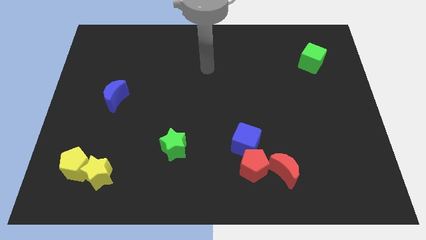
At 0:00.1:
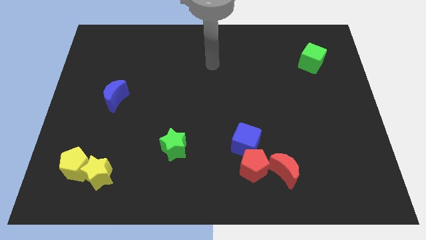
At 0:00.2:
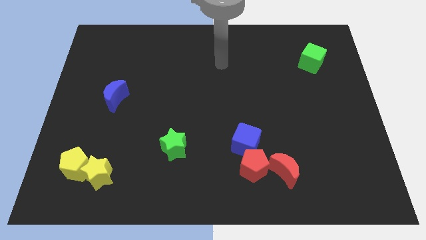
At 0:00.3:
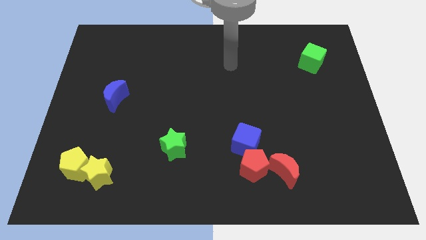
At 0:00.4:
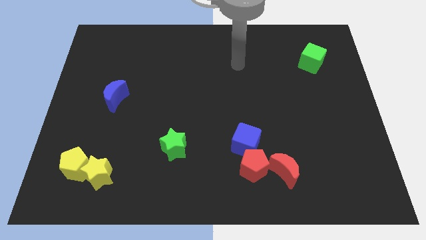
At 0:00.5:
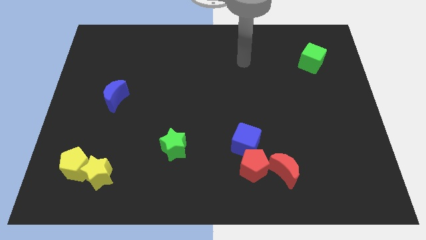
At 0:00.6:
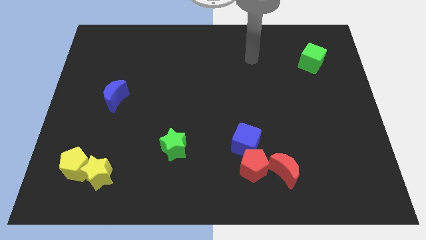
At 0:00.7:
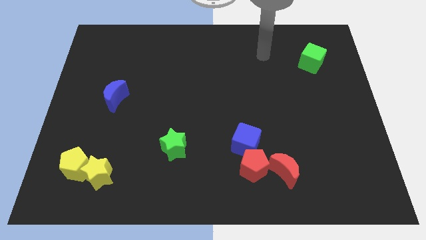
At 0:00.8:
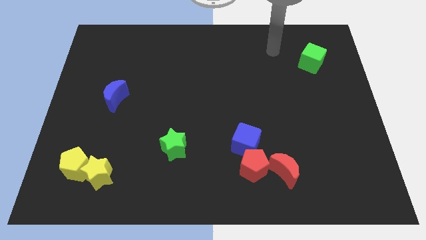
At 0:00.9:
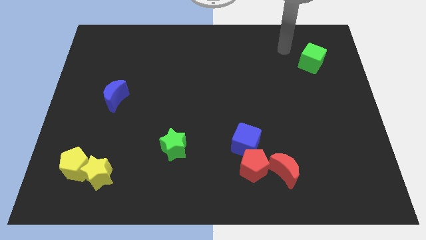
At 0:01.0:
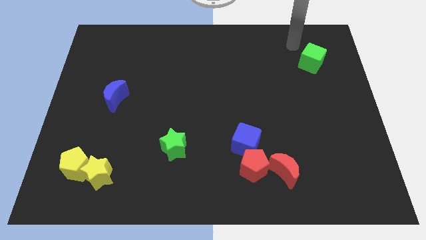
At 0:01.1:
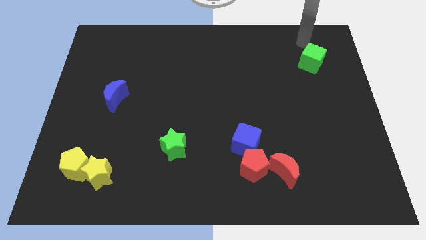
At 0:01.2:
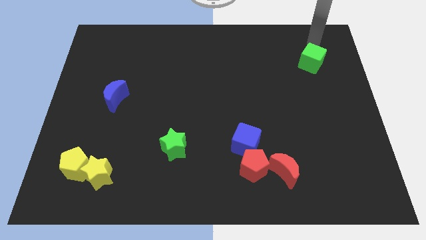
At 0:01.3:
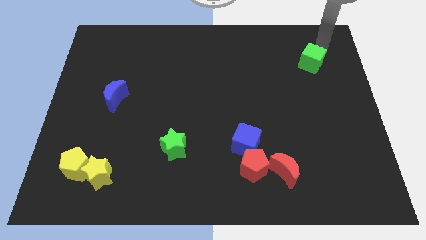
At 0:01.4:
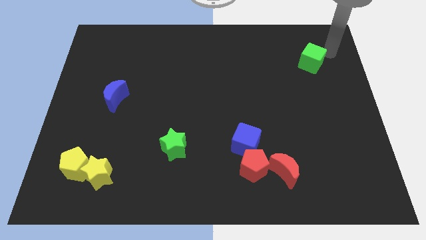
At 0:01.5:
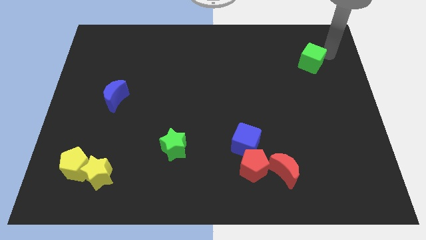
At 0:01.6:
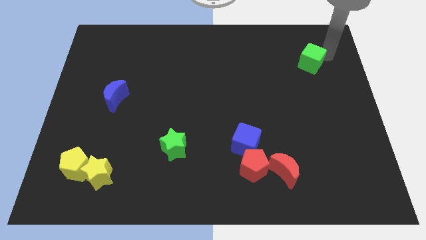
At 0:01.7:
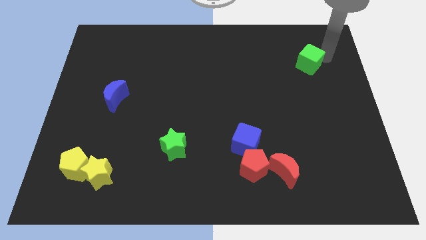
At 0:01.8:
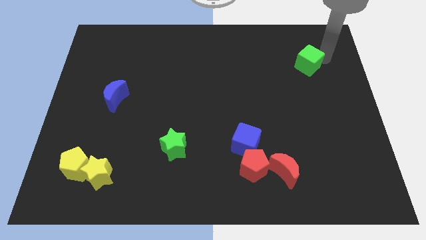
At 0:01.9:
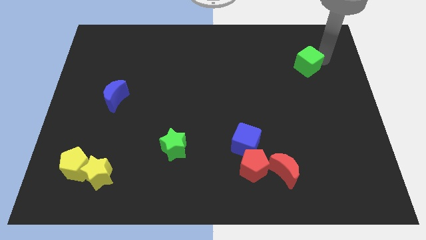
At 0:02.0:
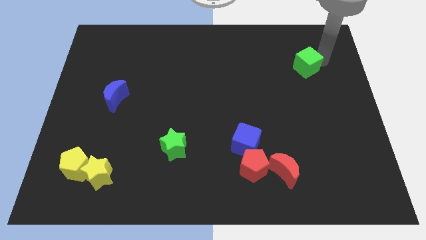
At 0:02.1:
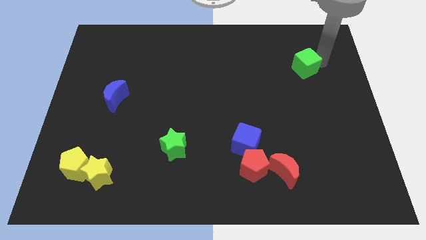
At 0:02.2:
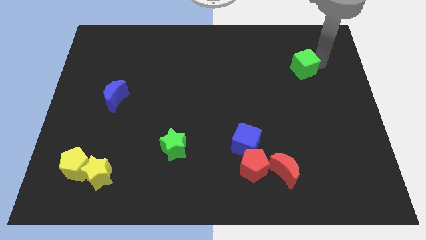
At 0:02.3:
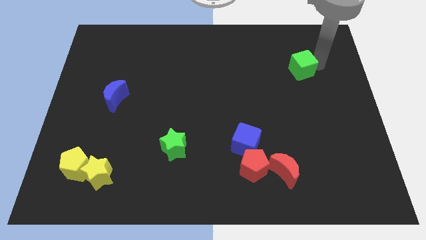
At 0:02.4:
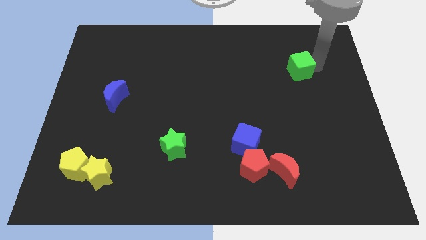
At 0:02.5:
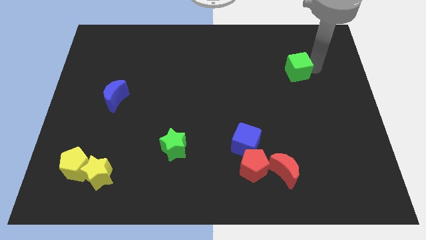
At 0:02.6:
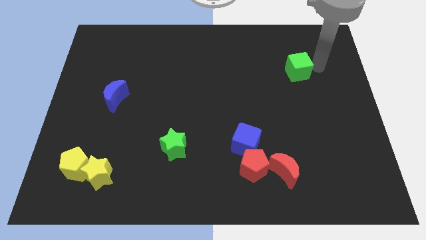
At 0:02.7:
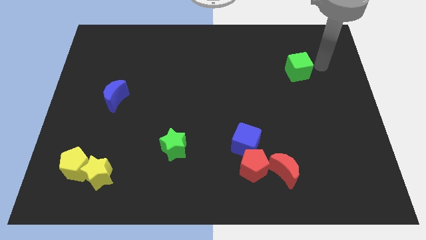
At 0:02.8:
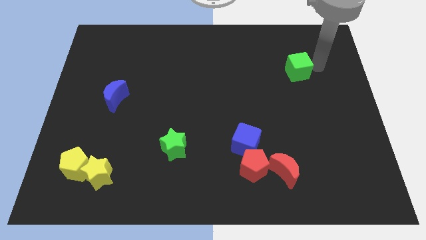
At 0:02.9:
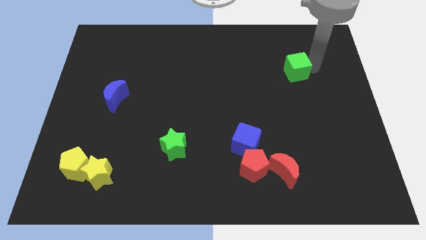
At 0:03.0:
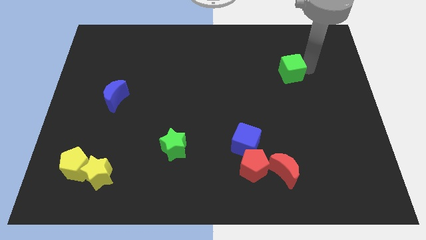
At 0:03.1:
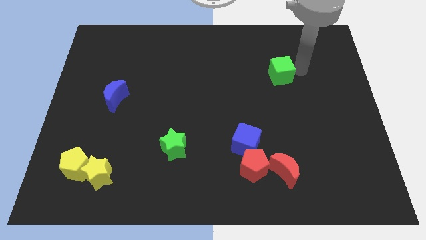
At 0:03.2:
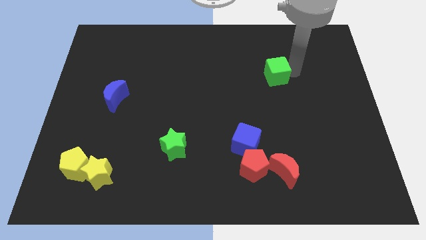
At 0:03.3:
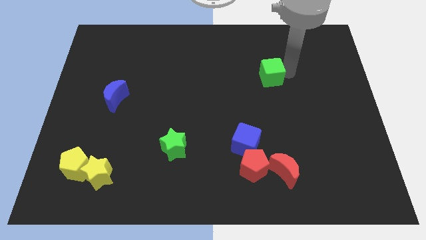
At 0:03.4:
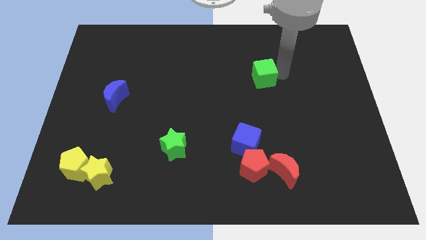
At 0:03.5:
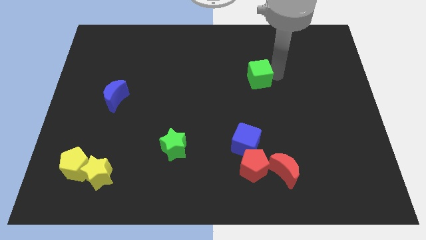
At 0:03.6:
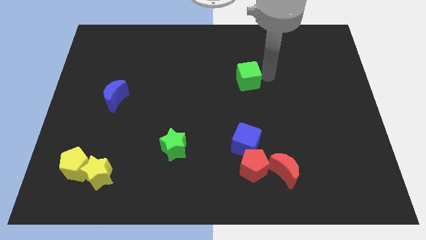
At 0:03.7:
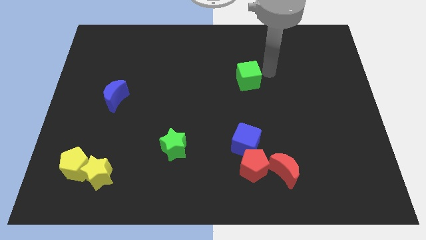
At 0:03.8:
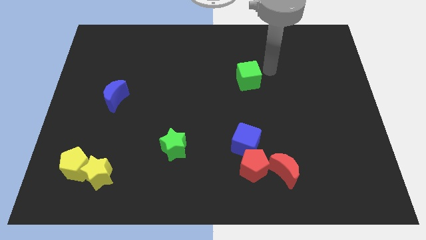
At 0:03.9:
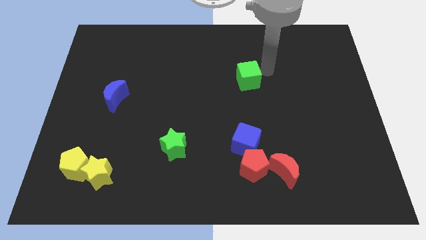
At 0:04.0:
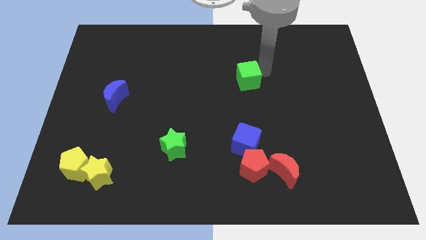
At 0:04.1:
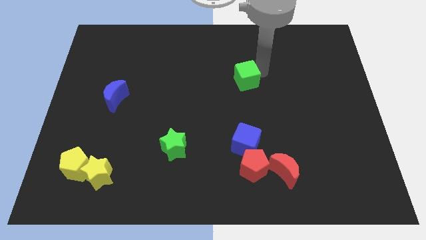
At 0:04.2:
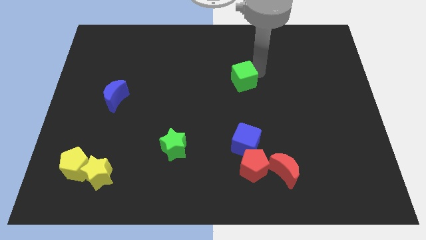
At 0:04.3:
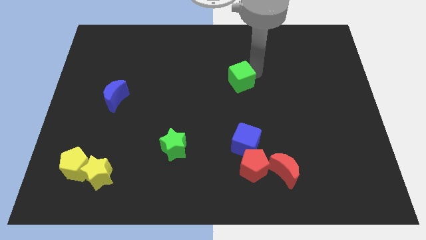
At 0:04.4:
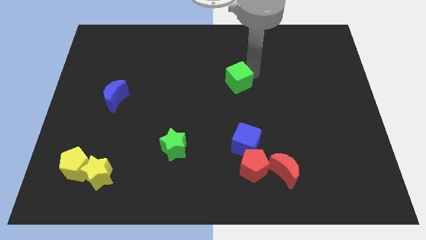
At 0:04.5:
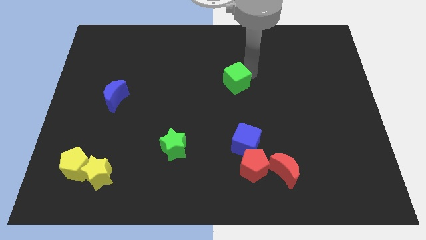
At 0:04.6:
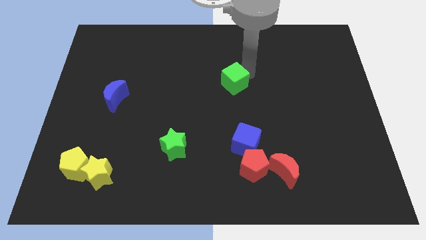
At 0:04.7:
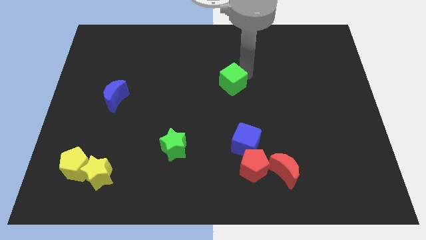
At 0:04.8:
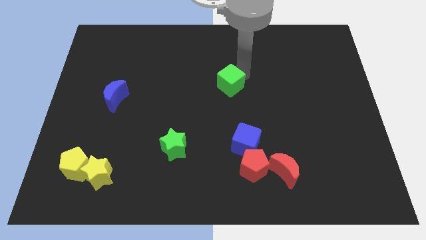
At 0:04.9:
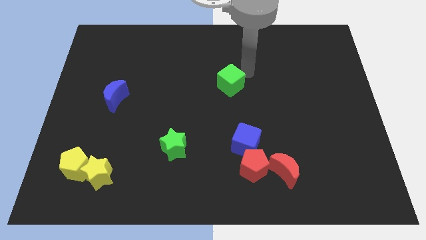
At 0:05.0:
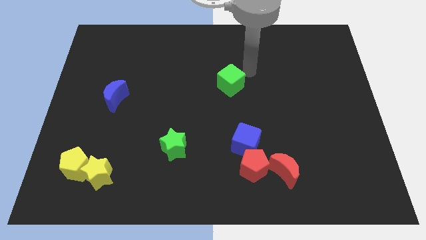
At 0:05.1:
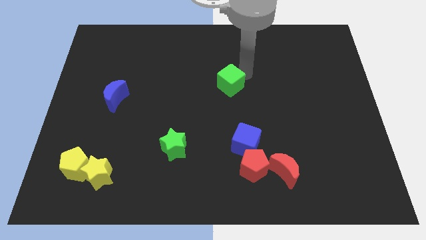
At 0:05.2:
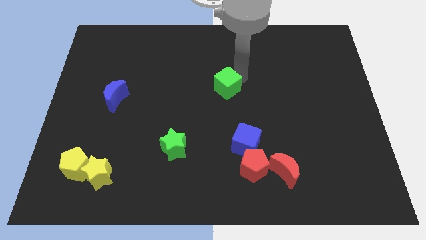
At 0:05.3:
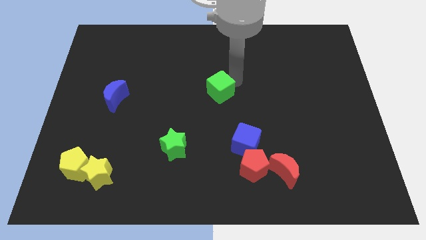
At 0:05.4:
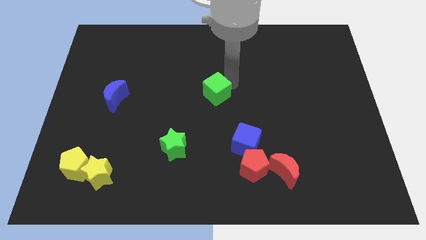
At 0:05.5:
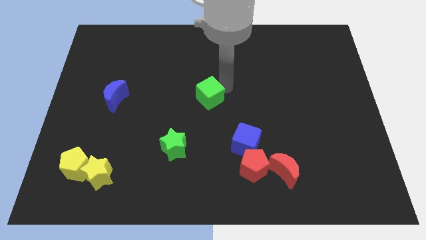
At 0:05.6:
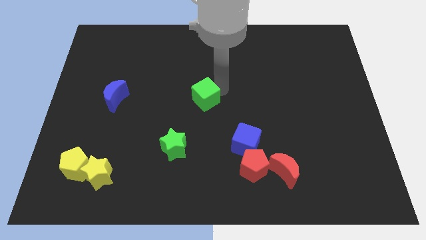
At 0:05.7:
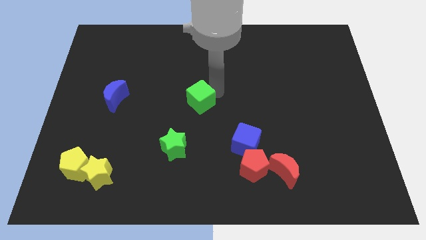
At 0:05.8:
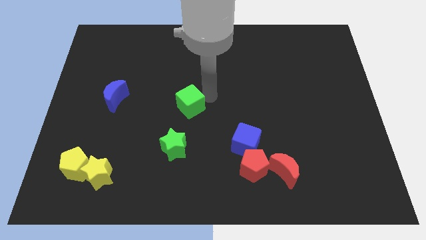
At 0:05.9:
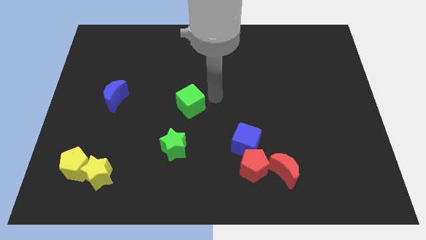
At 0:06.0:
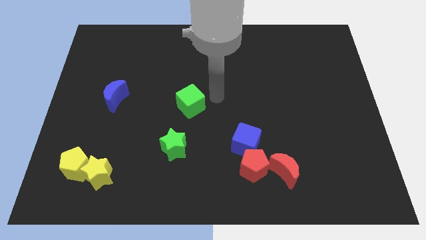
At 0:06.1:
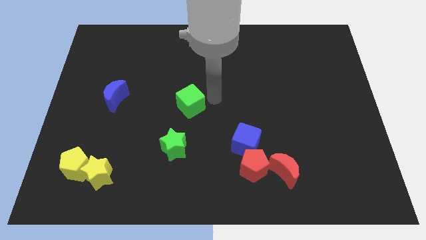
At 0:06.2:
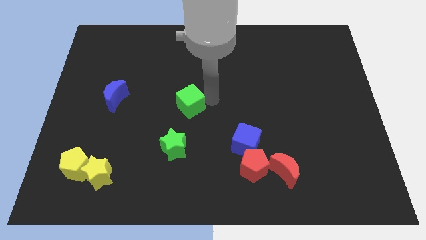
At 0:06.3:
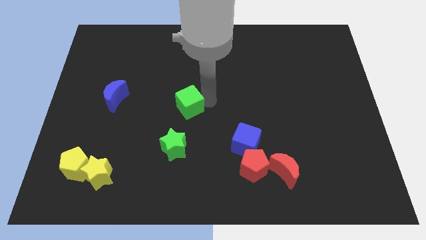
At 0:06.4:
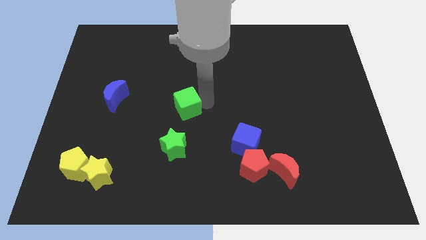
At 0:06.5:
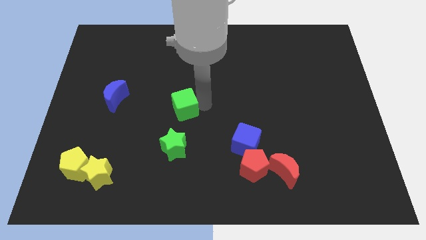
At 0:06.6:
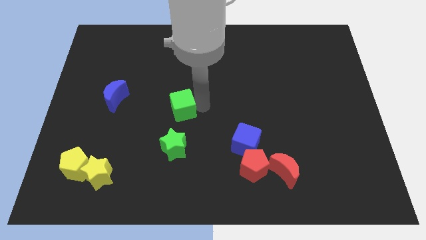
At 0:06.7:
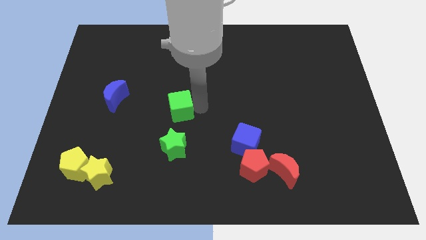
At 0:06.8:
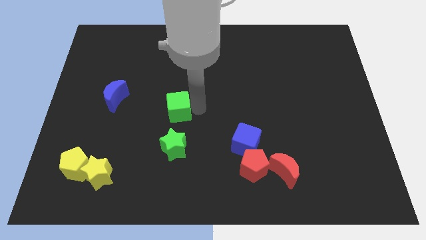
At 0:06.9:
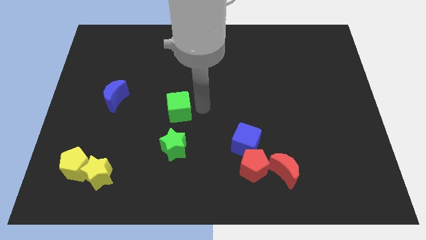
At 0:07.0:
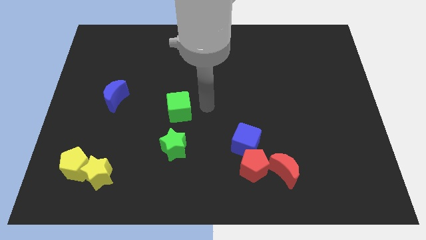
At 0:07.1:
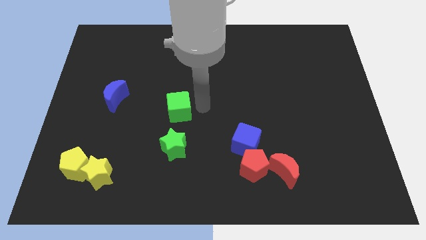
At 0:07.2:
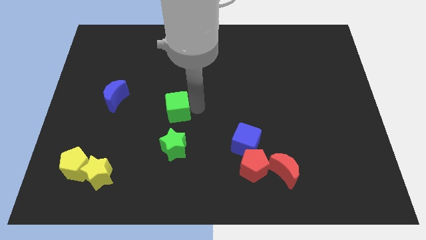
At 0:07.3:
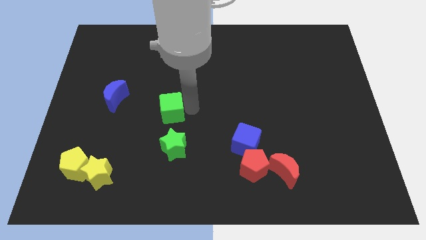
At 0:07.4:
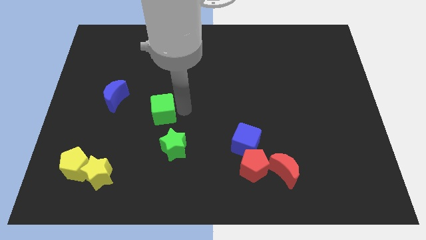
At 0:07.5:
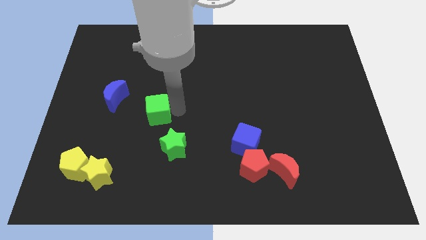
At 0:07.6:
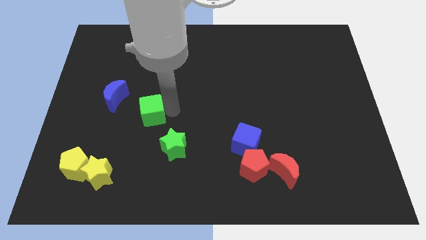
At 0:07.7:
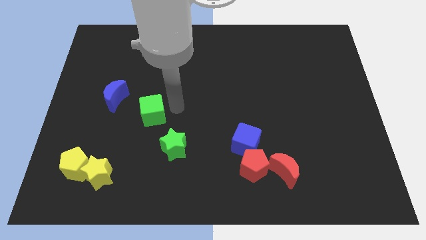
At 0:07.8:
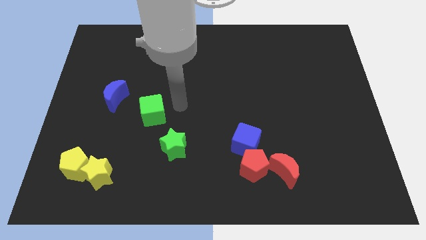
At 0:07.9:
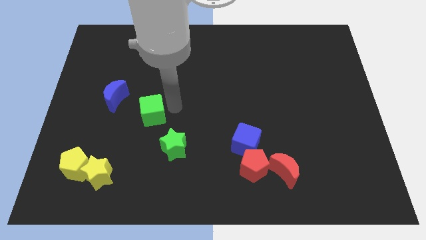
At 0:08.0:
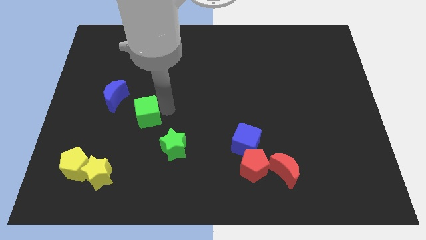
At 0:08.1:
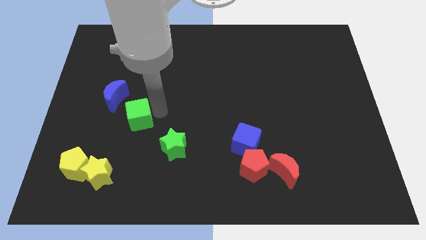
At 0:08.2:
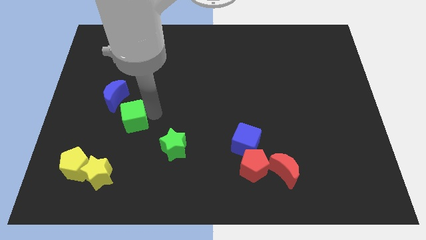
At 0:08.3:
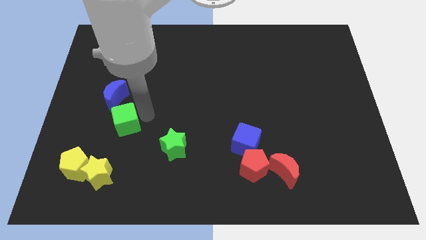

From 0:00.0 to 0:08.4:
move the green cube to the top side of the yellow star
